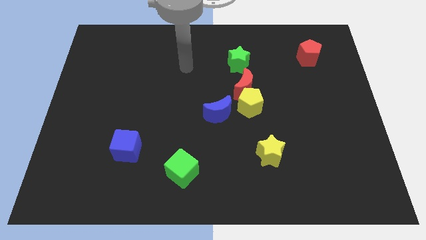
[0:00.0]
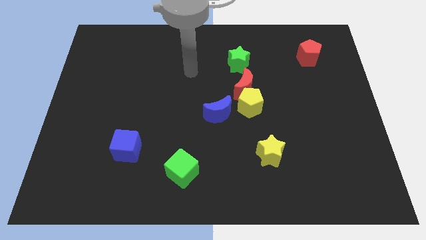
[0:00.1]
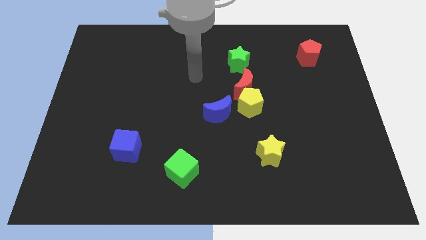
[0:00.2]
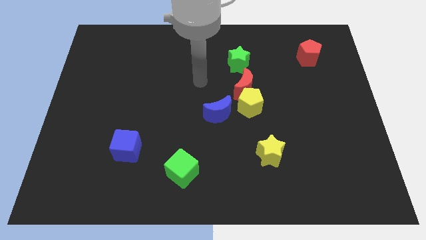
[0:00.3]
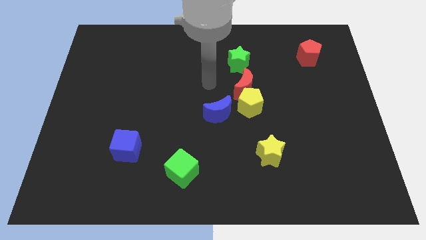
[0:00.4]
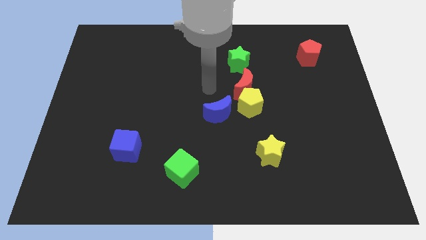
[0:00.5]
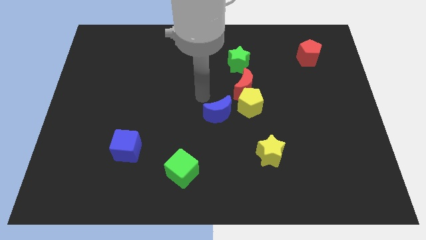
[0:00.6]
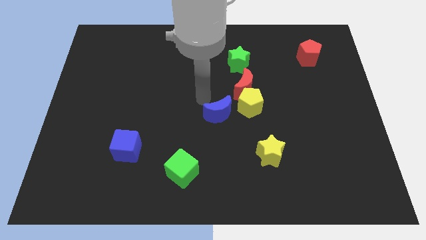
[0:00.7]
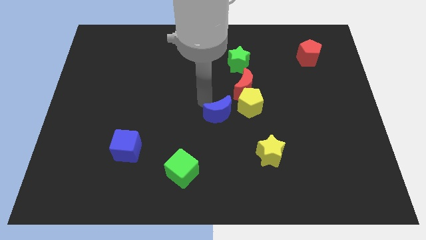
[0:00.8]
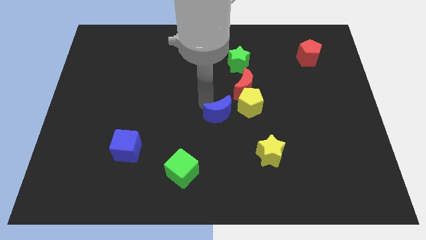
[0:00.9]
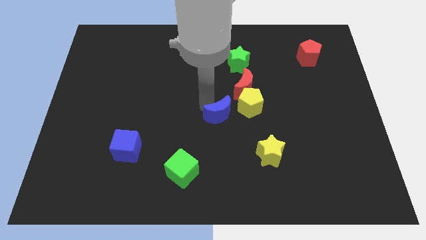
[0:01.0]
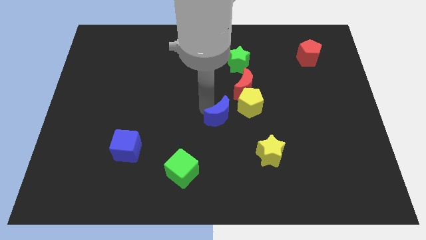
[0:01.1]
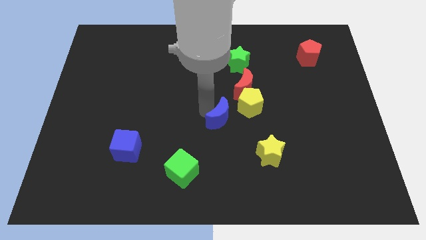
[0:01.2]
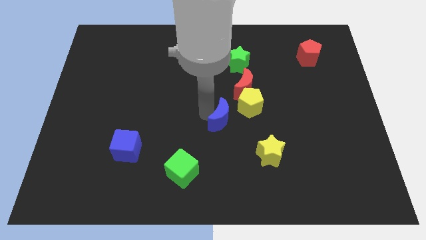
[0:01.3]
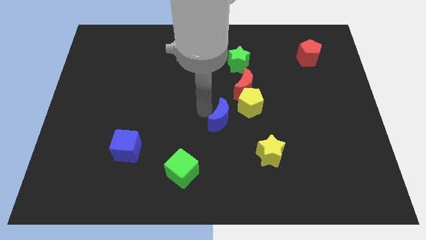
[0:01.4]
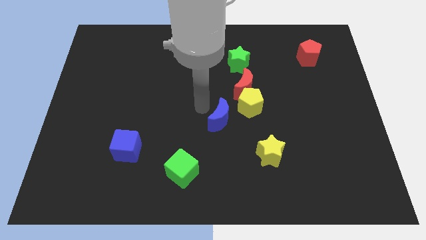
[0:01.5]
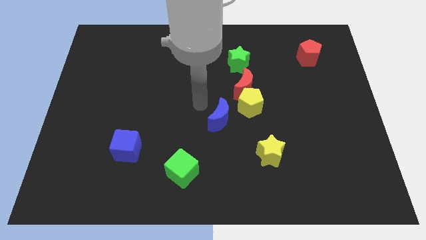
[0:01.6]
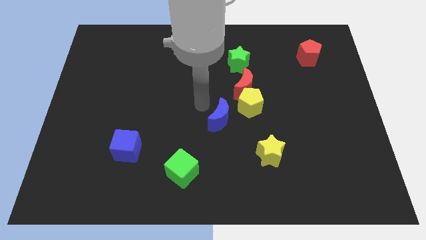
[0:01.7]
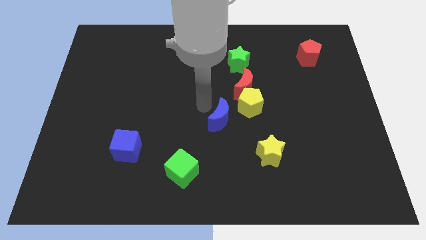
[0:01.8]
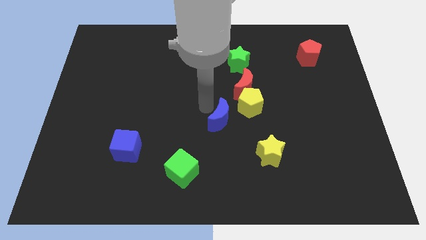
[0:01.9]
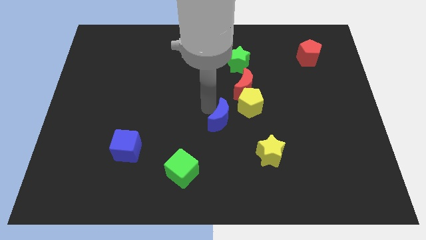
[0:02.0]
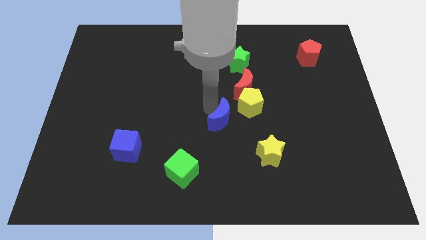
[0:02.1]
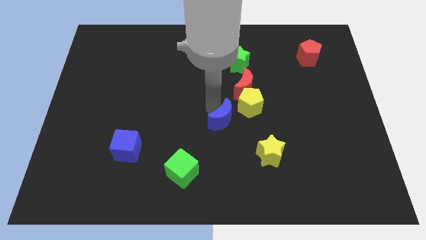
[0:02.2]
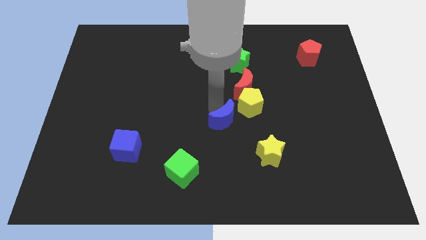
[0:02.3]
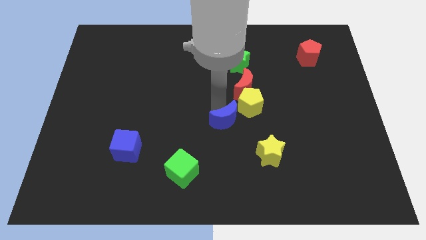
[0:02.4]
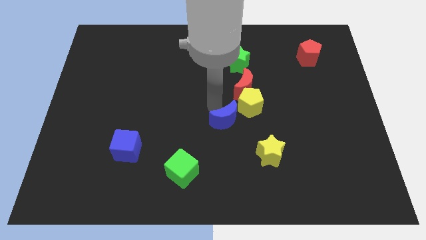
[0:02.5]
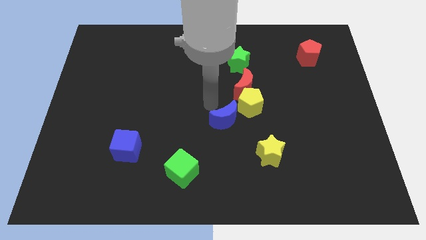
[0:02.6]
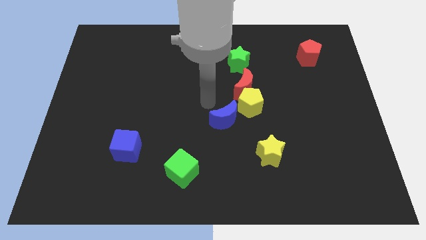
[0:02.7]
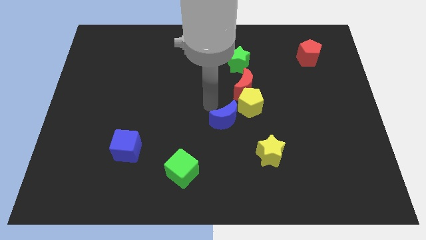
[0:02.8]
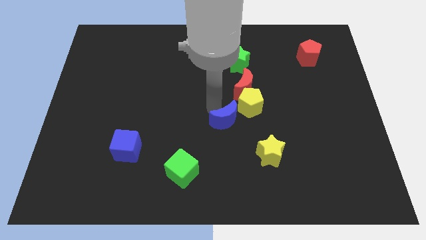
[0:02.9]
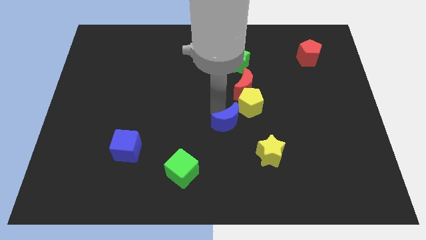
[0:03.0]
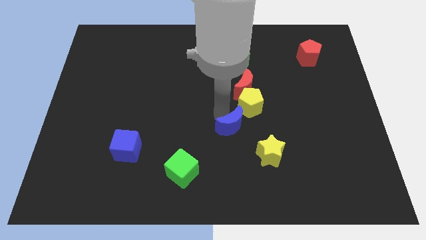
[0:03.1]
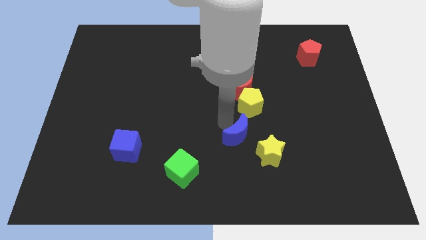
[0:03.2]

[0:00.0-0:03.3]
slightly push the blue moon downwards and to the right diagonally

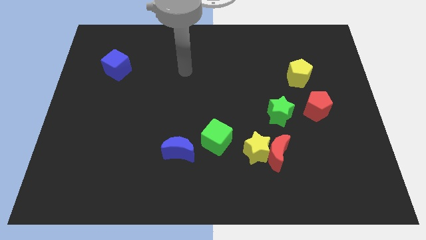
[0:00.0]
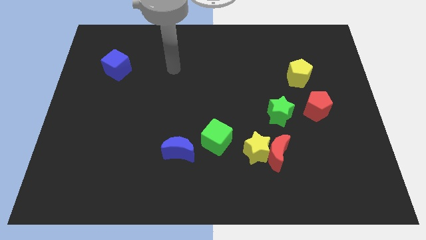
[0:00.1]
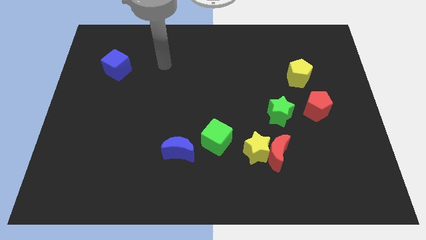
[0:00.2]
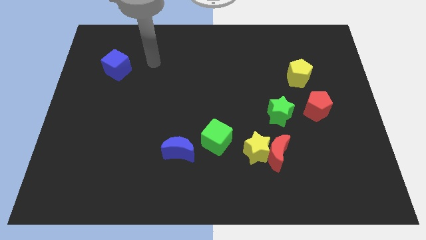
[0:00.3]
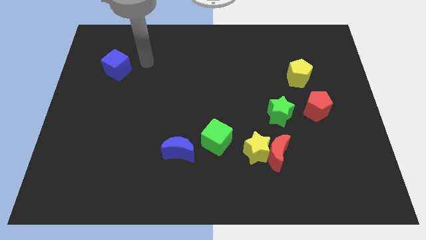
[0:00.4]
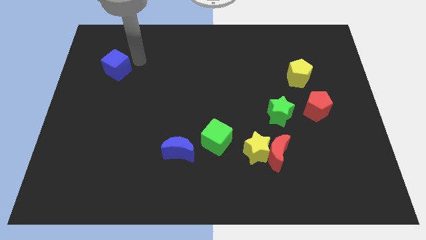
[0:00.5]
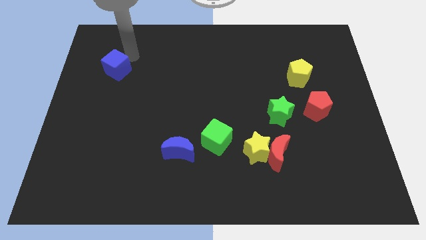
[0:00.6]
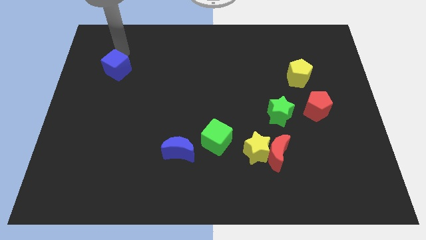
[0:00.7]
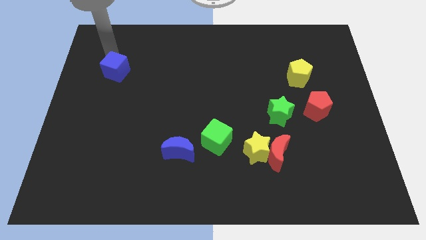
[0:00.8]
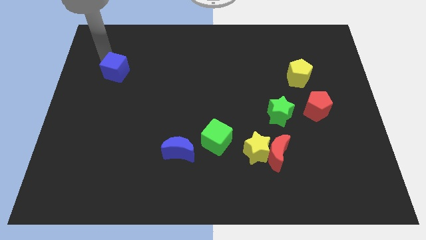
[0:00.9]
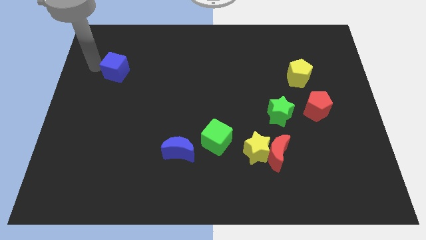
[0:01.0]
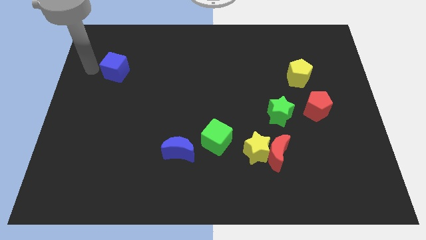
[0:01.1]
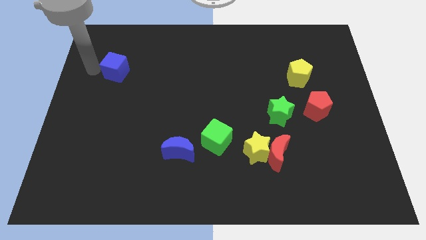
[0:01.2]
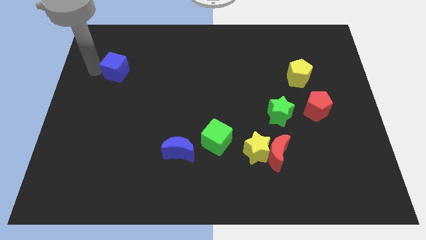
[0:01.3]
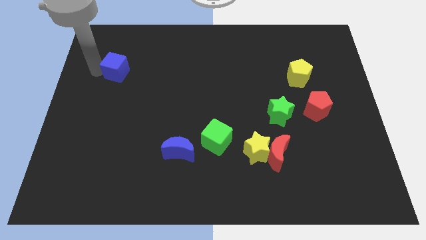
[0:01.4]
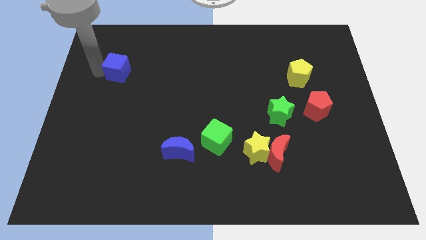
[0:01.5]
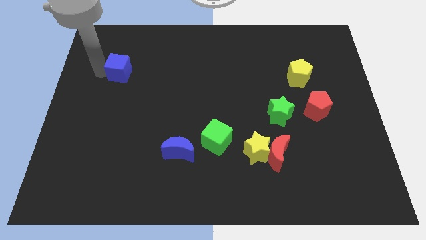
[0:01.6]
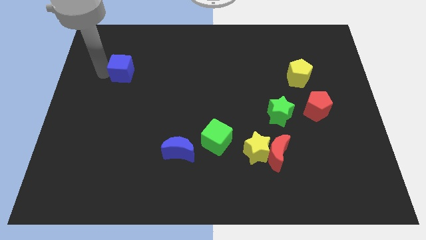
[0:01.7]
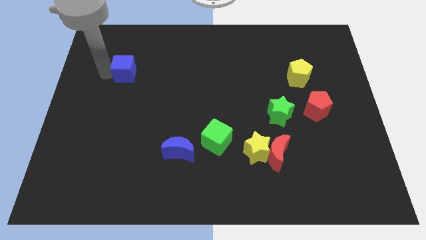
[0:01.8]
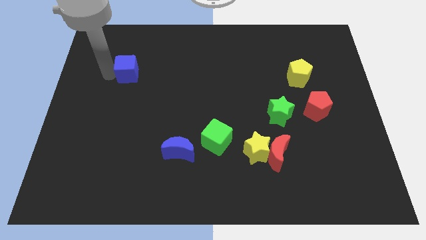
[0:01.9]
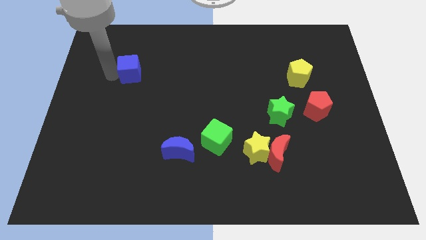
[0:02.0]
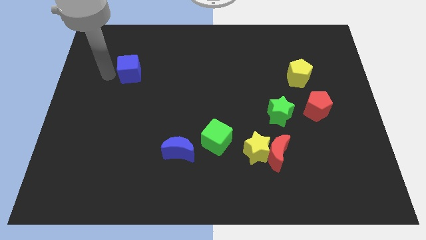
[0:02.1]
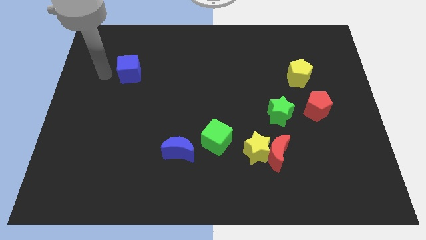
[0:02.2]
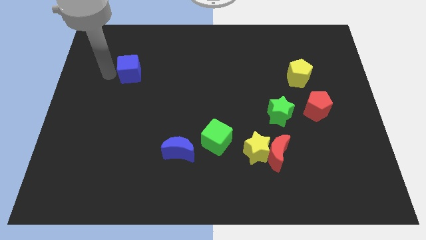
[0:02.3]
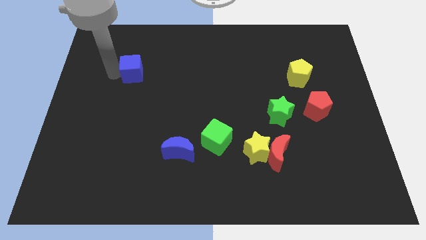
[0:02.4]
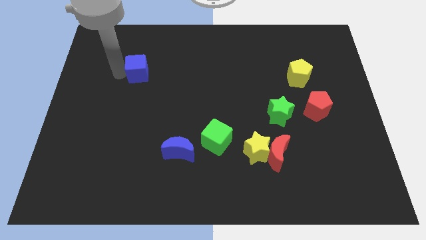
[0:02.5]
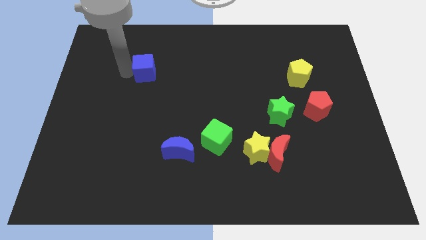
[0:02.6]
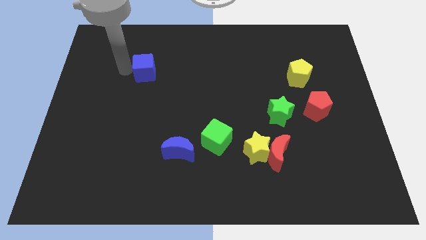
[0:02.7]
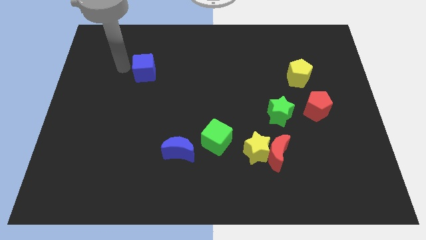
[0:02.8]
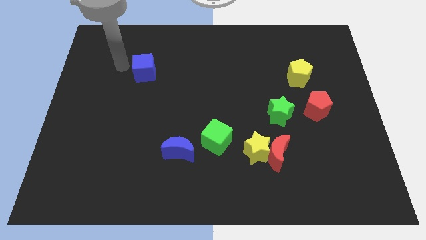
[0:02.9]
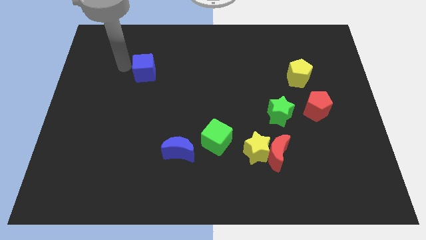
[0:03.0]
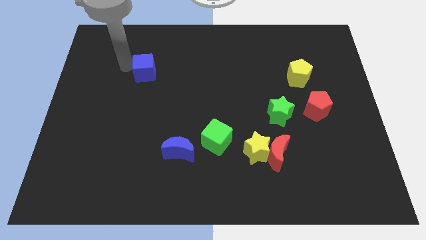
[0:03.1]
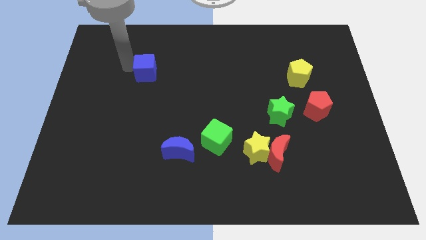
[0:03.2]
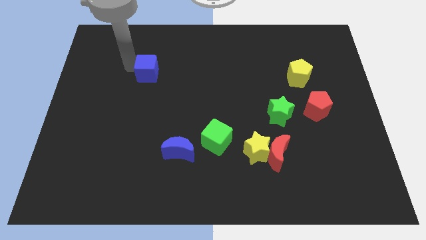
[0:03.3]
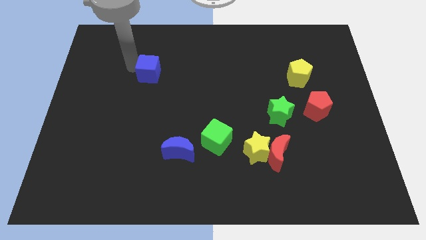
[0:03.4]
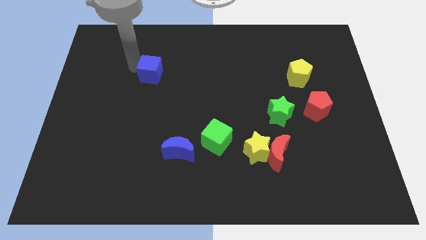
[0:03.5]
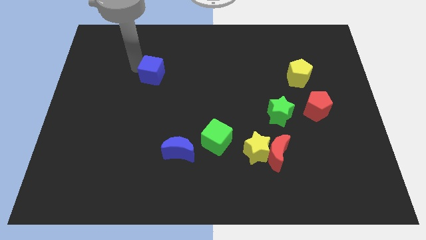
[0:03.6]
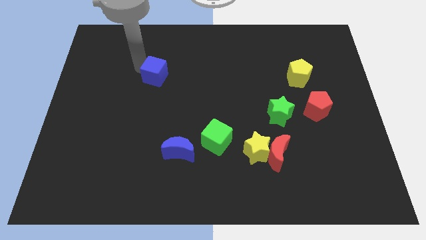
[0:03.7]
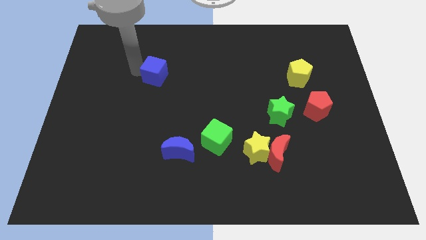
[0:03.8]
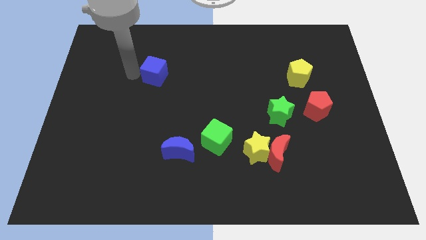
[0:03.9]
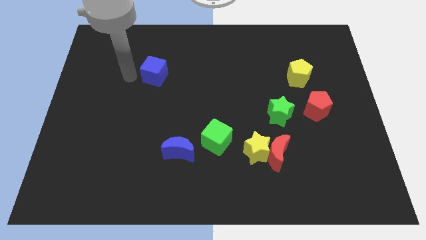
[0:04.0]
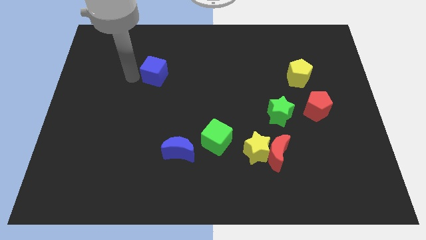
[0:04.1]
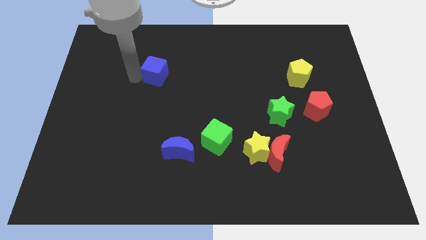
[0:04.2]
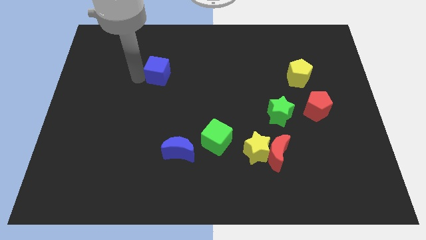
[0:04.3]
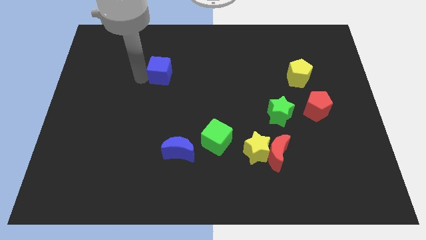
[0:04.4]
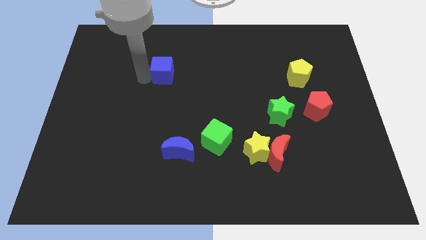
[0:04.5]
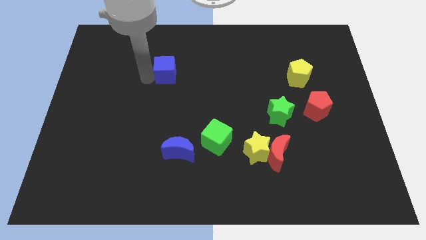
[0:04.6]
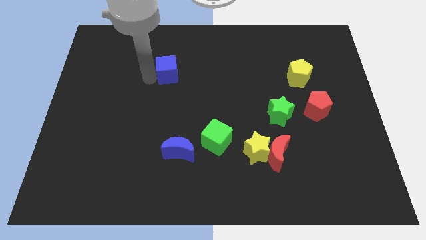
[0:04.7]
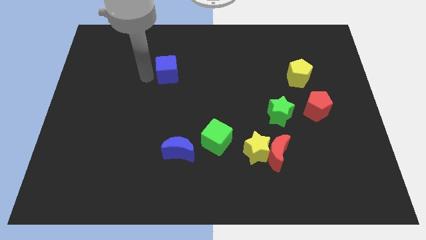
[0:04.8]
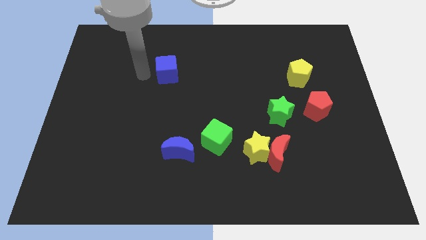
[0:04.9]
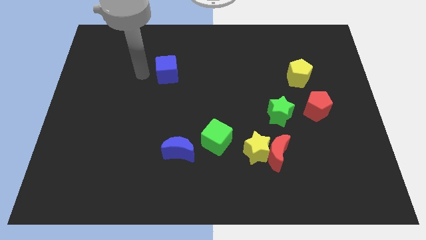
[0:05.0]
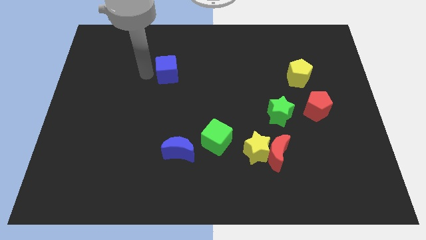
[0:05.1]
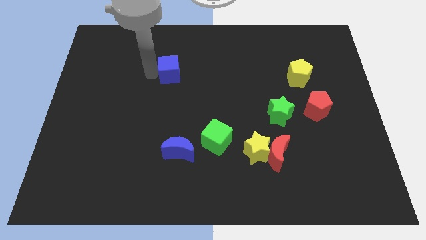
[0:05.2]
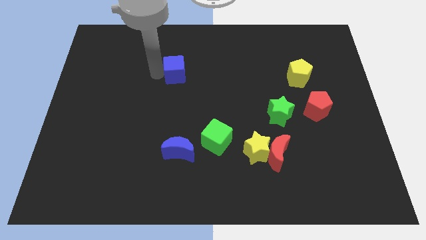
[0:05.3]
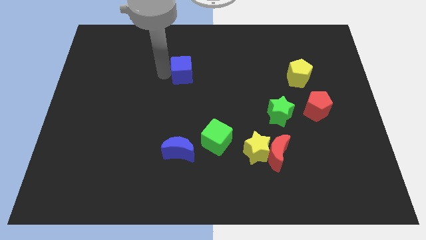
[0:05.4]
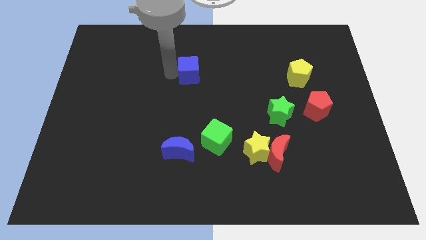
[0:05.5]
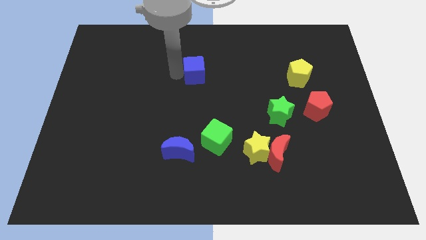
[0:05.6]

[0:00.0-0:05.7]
push the blue cube to the right
